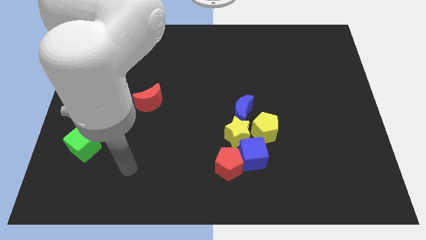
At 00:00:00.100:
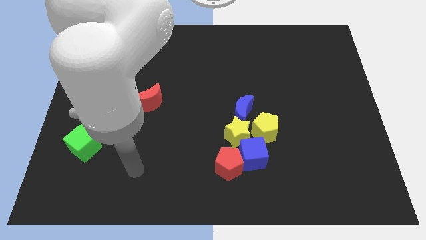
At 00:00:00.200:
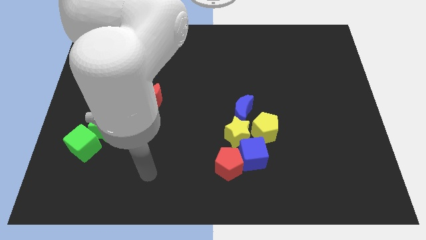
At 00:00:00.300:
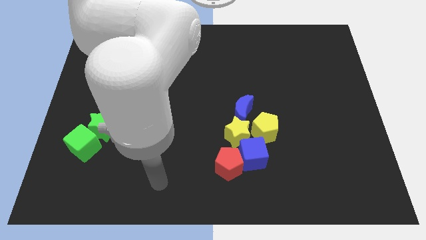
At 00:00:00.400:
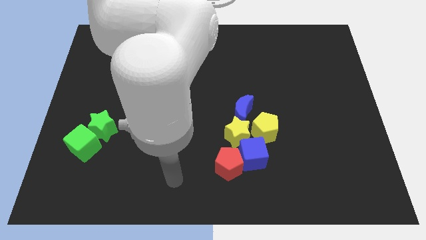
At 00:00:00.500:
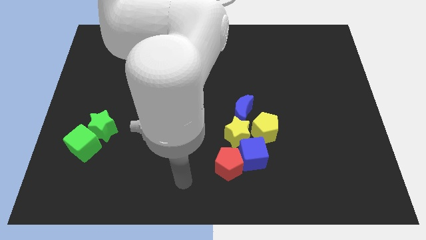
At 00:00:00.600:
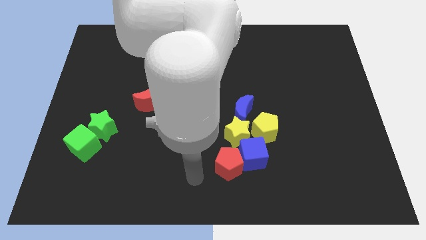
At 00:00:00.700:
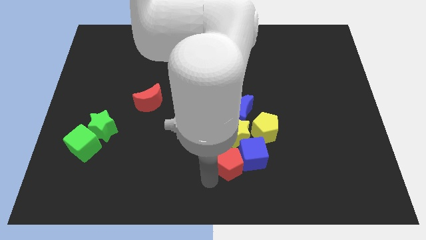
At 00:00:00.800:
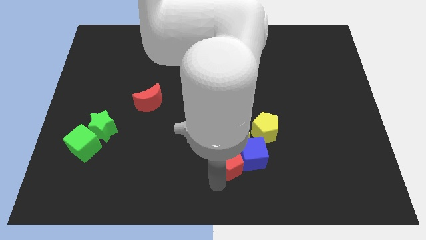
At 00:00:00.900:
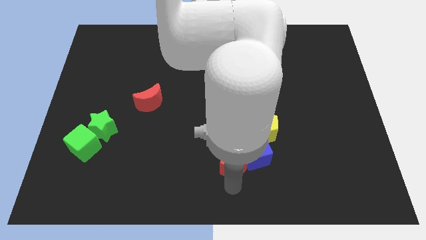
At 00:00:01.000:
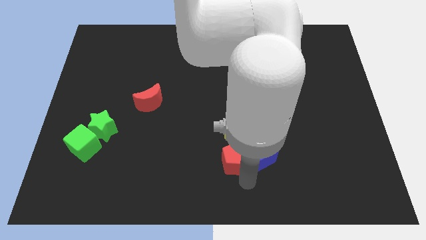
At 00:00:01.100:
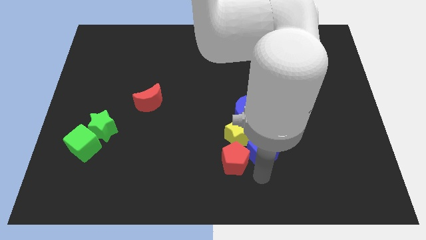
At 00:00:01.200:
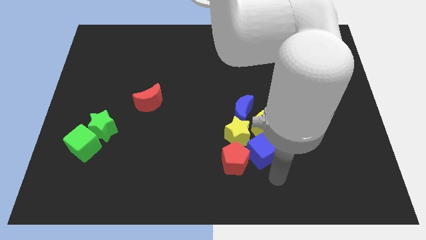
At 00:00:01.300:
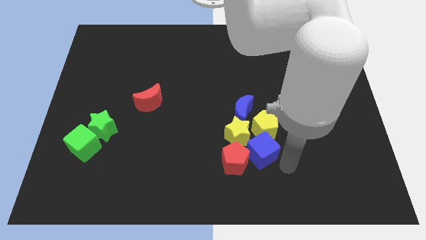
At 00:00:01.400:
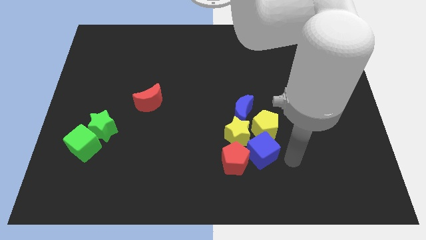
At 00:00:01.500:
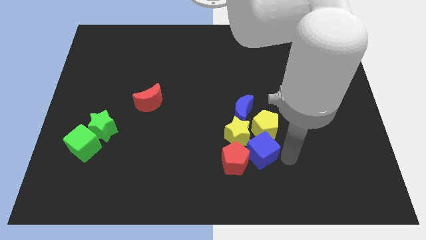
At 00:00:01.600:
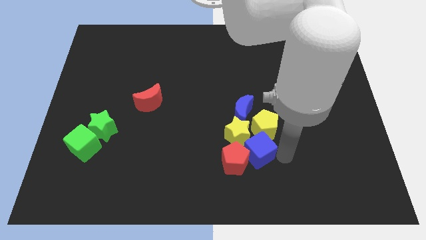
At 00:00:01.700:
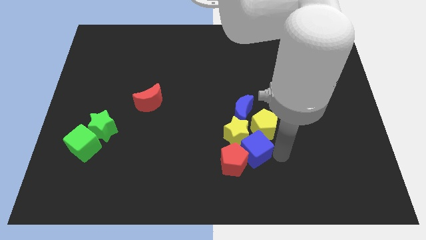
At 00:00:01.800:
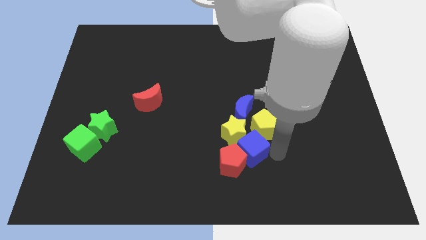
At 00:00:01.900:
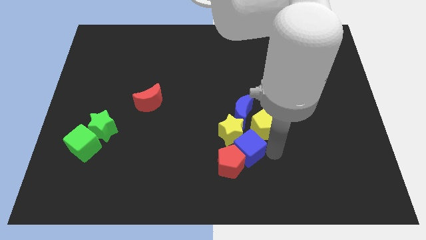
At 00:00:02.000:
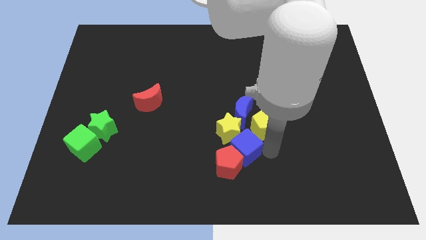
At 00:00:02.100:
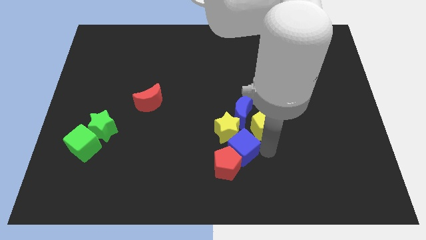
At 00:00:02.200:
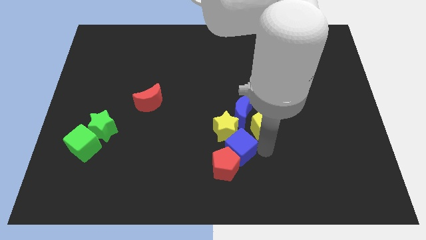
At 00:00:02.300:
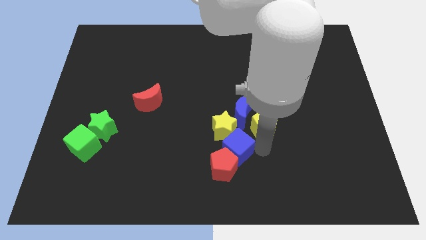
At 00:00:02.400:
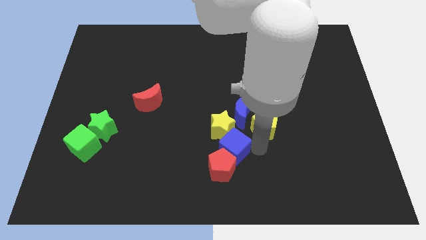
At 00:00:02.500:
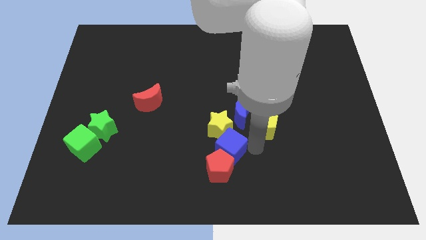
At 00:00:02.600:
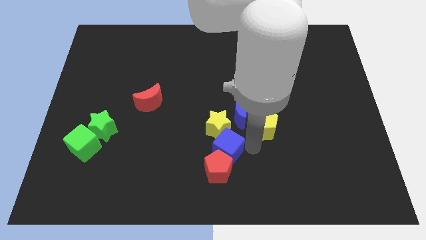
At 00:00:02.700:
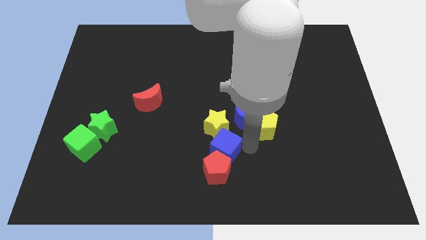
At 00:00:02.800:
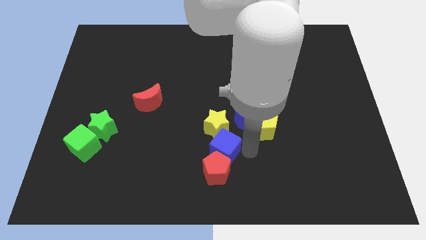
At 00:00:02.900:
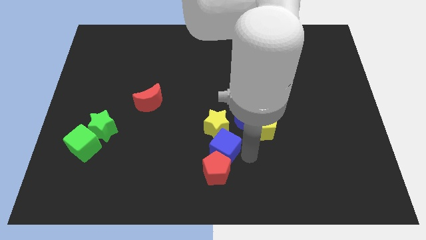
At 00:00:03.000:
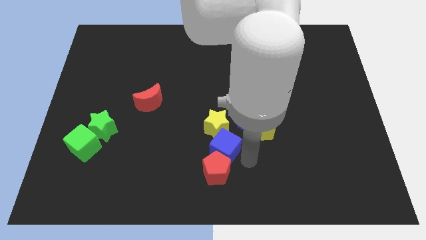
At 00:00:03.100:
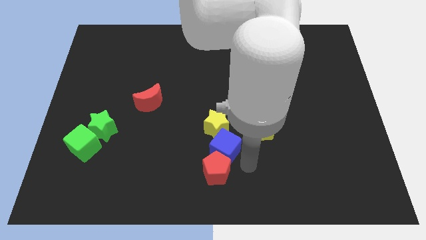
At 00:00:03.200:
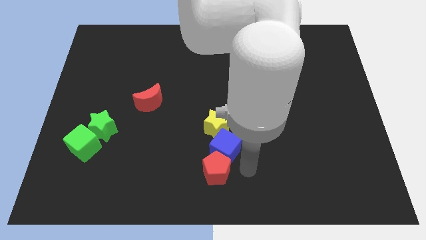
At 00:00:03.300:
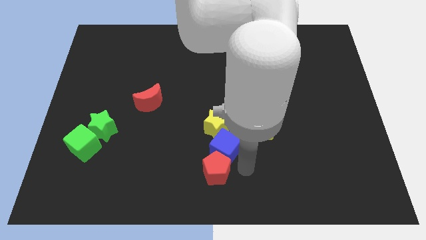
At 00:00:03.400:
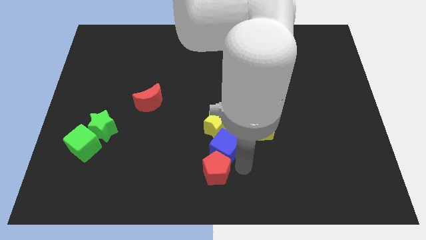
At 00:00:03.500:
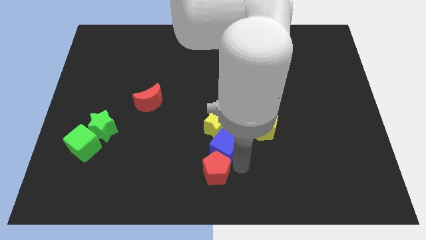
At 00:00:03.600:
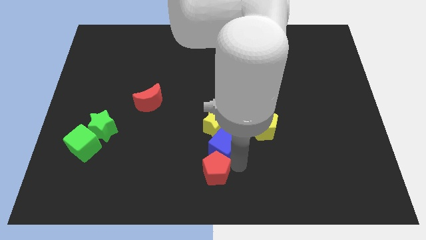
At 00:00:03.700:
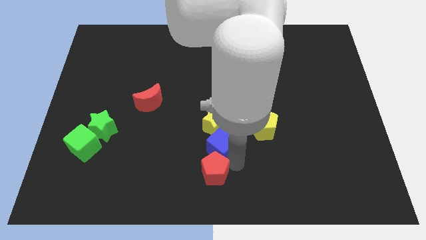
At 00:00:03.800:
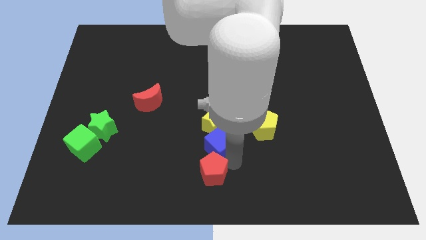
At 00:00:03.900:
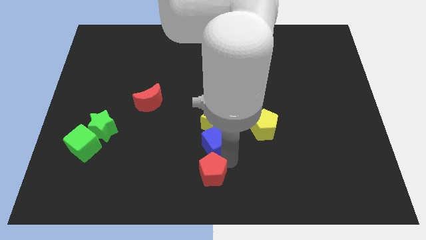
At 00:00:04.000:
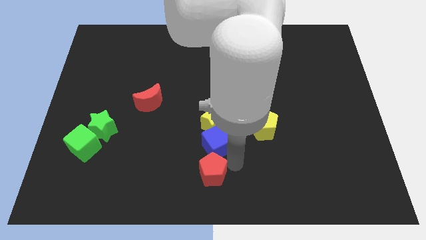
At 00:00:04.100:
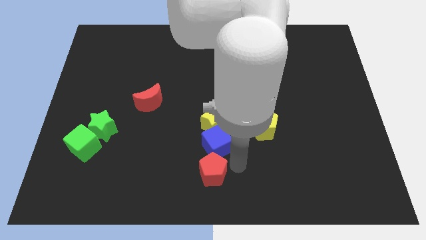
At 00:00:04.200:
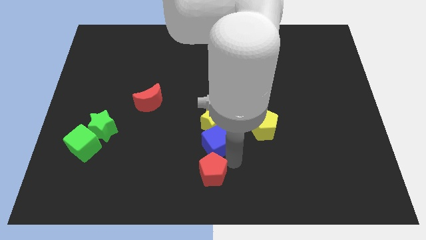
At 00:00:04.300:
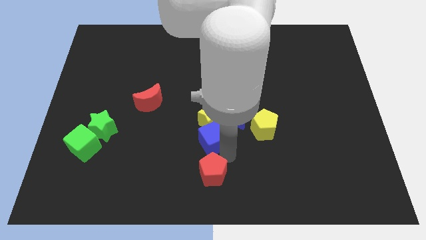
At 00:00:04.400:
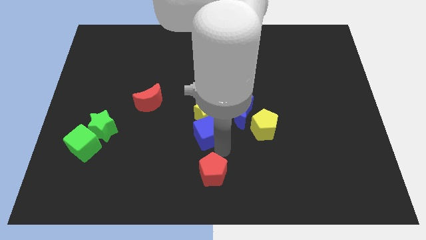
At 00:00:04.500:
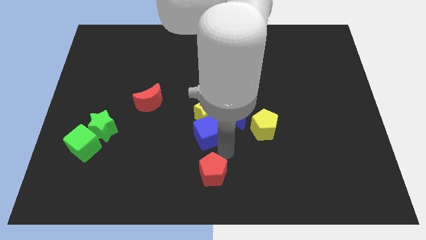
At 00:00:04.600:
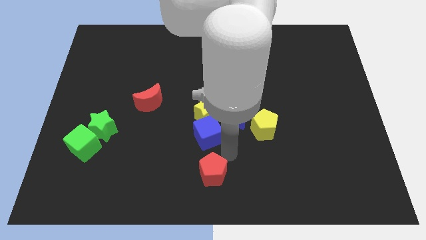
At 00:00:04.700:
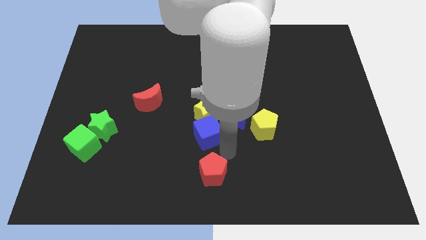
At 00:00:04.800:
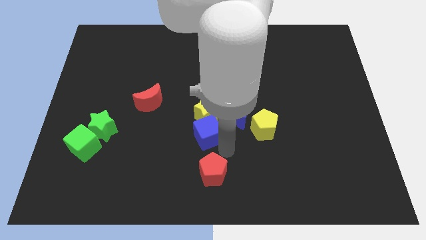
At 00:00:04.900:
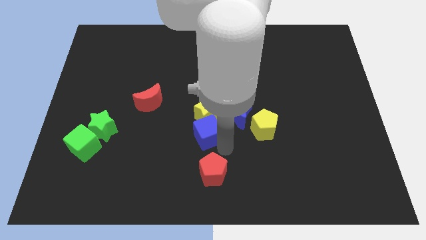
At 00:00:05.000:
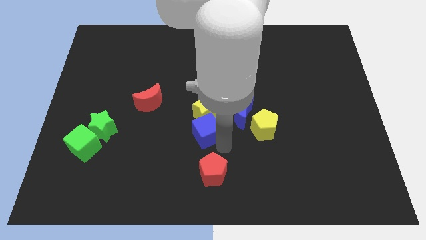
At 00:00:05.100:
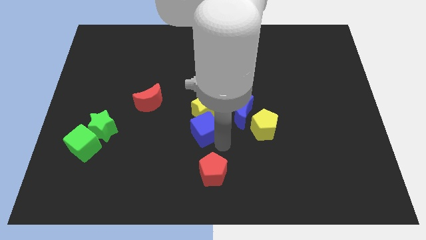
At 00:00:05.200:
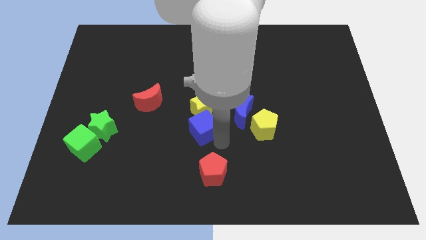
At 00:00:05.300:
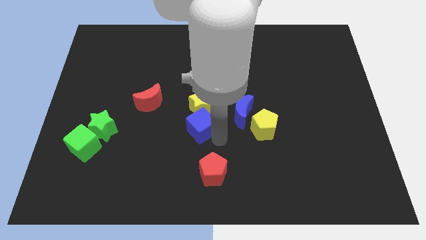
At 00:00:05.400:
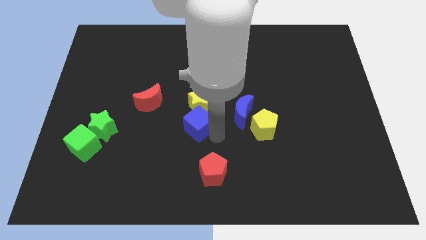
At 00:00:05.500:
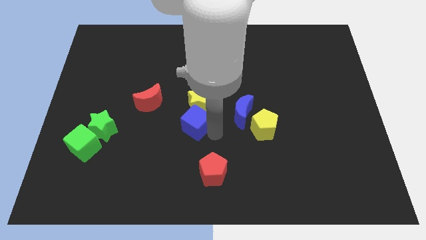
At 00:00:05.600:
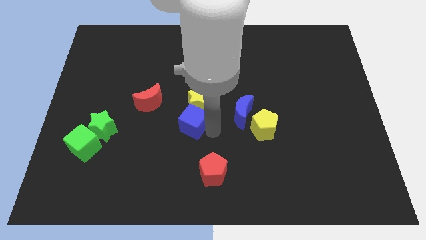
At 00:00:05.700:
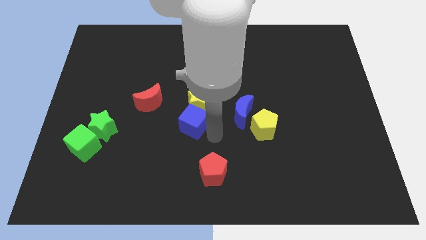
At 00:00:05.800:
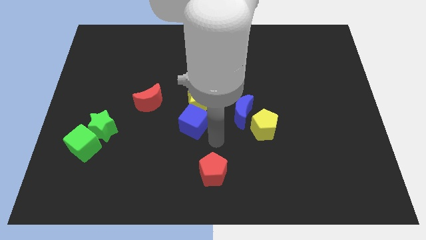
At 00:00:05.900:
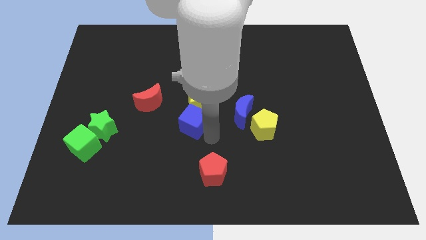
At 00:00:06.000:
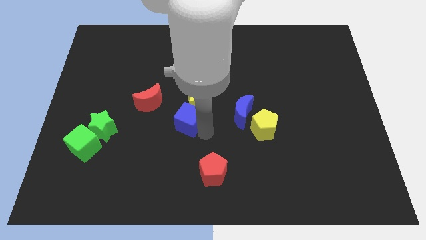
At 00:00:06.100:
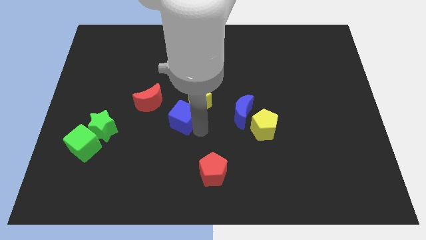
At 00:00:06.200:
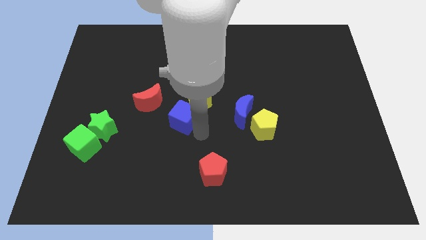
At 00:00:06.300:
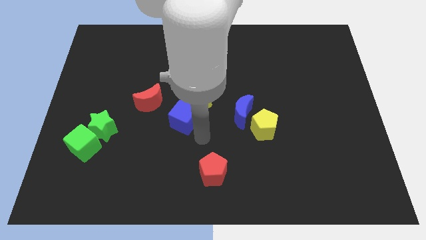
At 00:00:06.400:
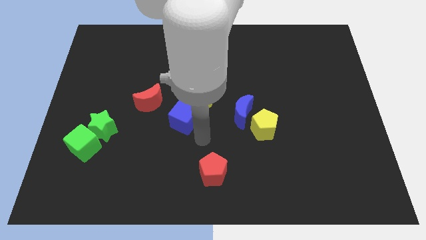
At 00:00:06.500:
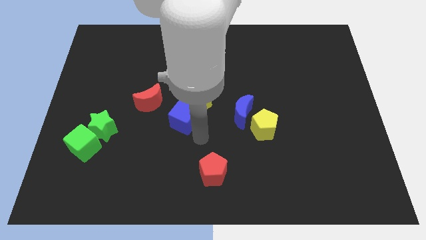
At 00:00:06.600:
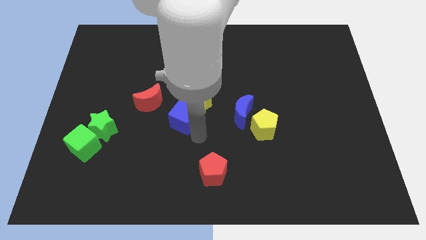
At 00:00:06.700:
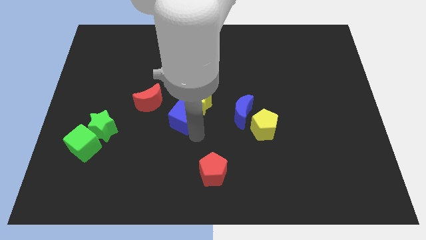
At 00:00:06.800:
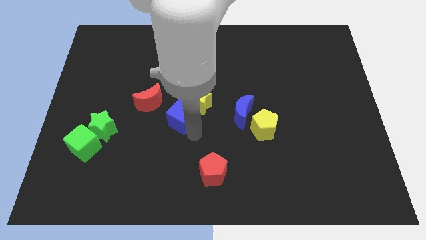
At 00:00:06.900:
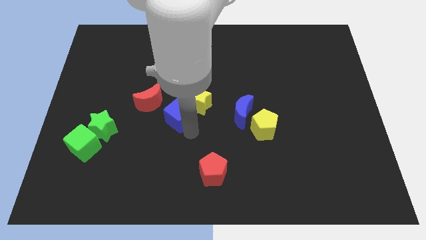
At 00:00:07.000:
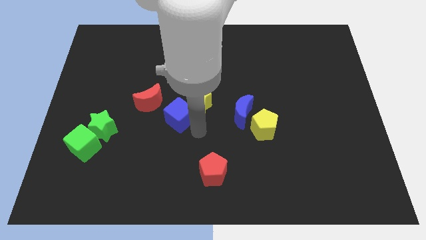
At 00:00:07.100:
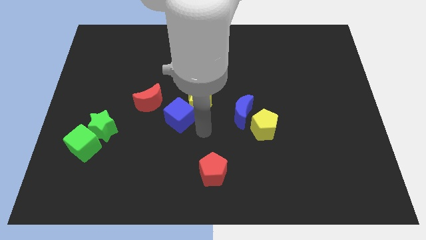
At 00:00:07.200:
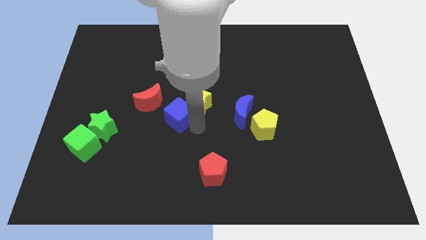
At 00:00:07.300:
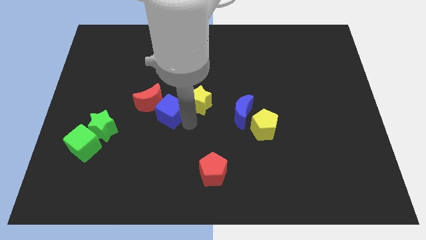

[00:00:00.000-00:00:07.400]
push the blue cube next to the red moon
